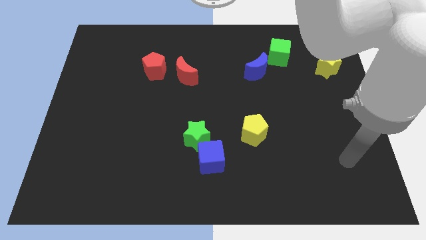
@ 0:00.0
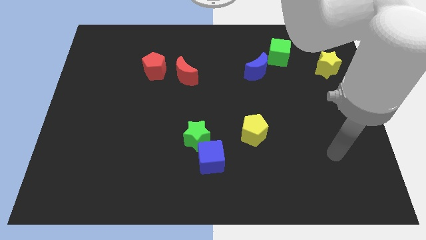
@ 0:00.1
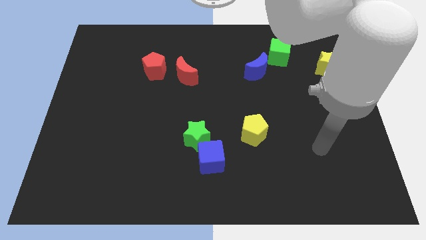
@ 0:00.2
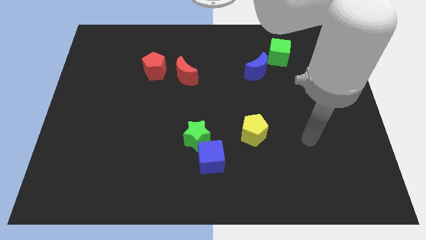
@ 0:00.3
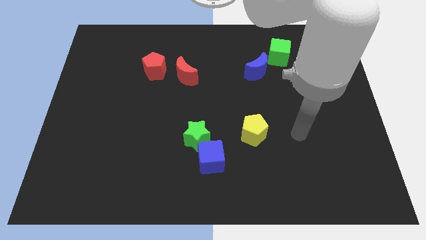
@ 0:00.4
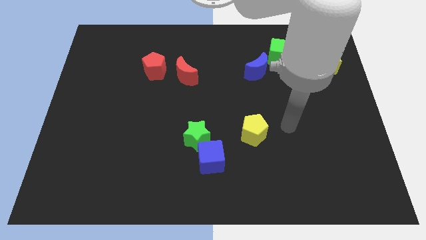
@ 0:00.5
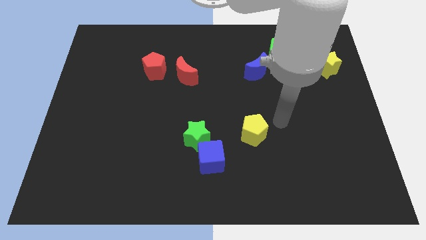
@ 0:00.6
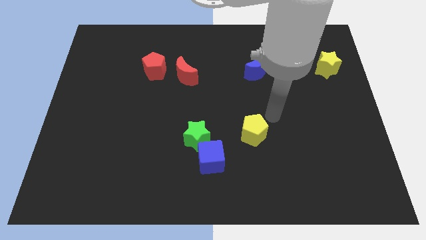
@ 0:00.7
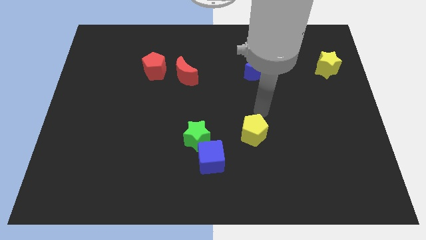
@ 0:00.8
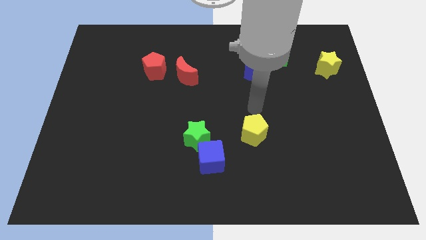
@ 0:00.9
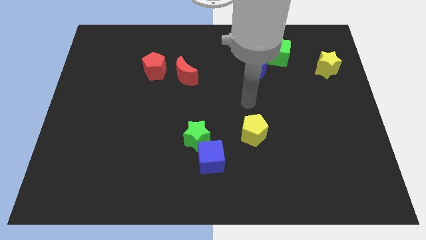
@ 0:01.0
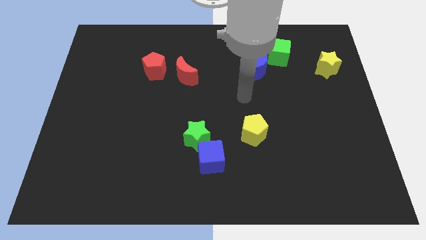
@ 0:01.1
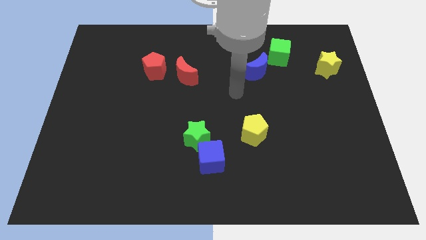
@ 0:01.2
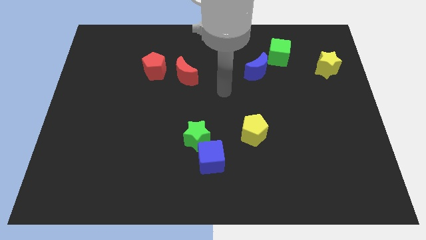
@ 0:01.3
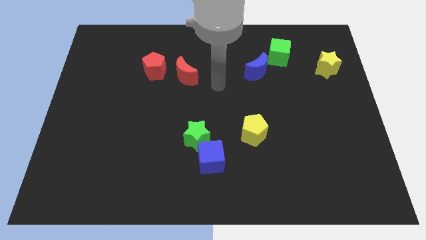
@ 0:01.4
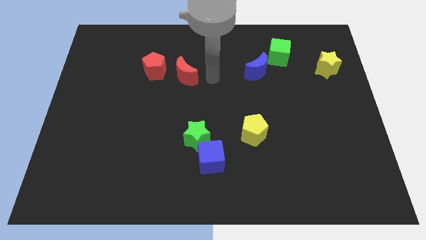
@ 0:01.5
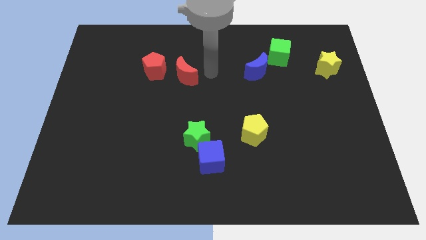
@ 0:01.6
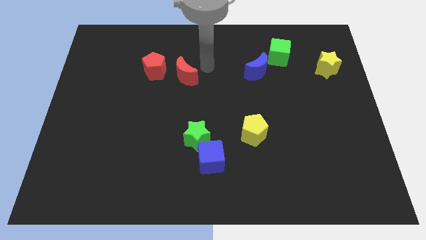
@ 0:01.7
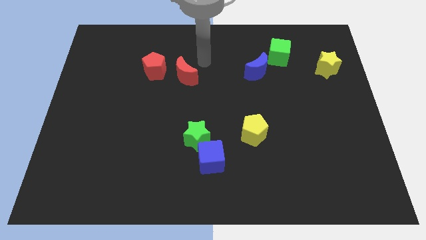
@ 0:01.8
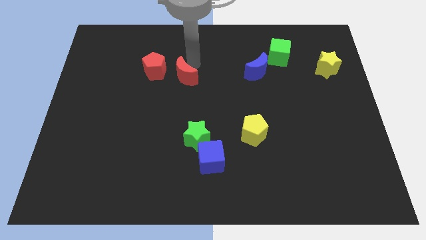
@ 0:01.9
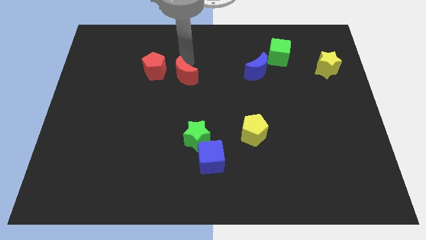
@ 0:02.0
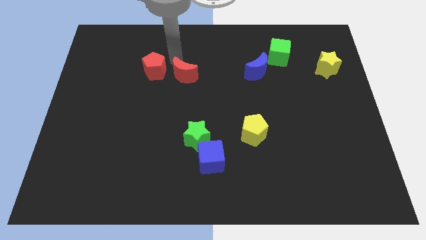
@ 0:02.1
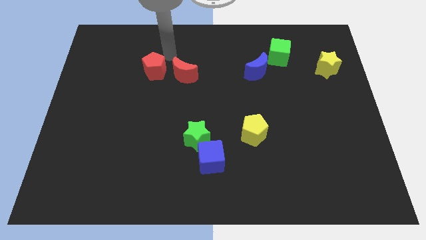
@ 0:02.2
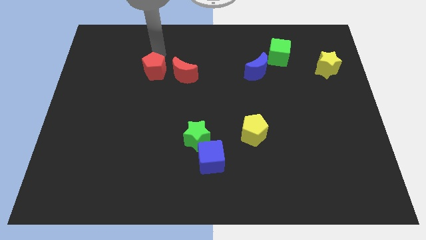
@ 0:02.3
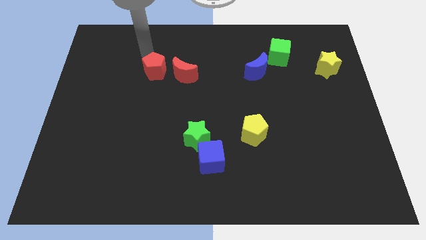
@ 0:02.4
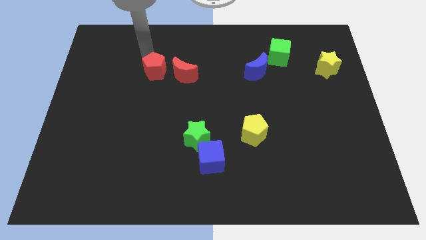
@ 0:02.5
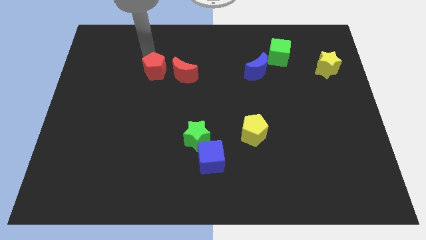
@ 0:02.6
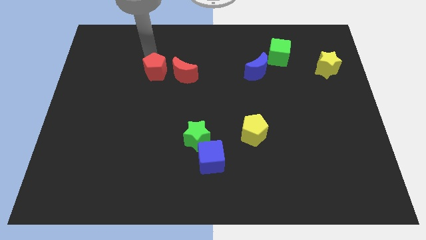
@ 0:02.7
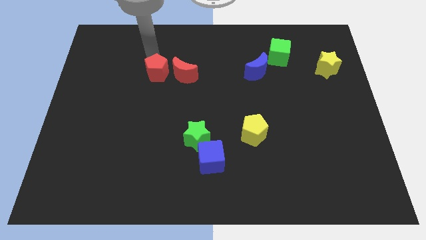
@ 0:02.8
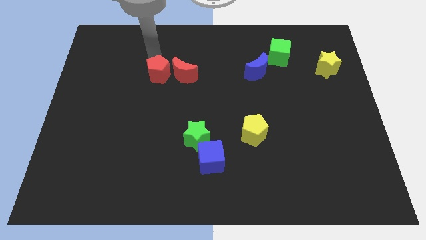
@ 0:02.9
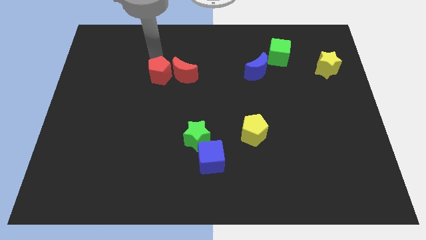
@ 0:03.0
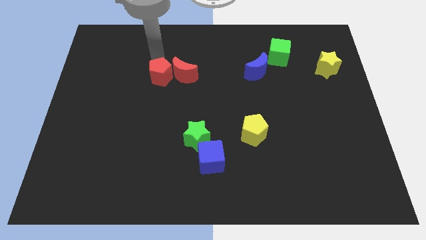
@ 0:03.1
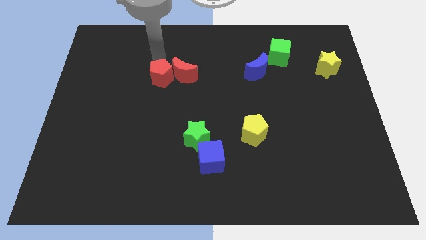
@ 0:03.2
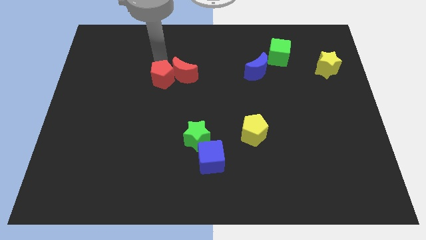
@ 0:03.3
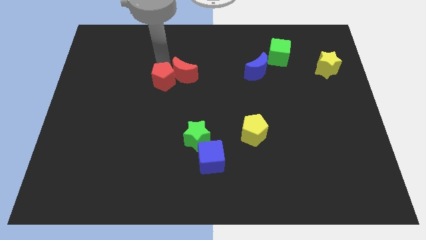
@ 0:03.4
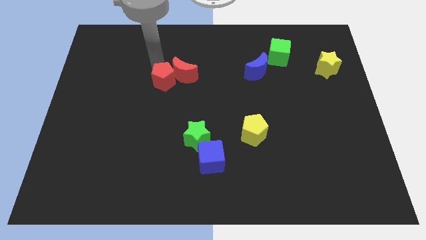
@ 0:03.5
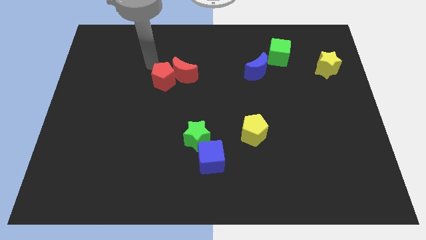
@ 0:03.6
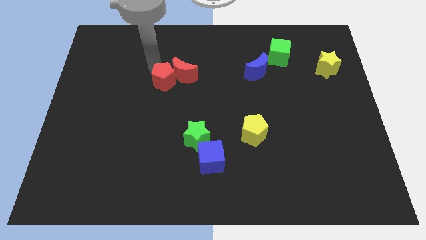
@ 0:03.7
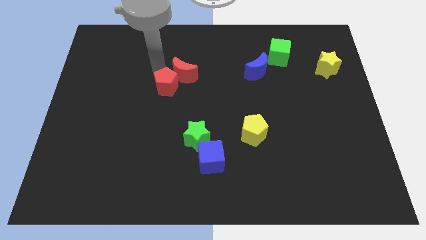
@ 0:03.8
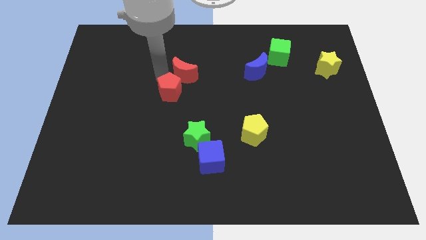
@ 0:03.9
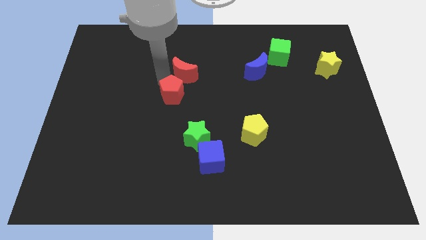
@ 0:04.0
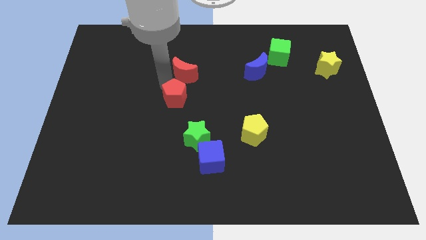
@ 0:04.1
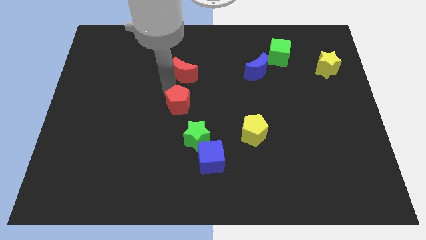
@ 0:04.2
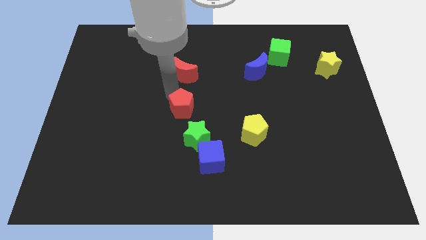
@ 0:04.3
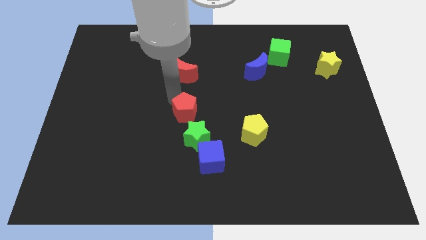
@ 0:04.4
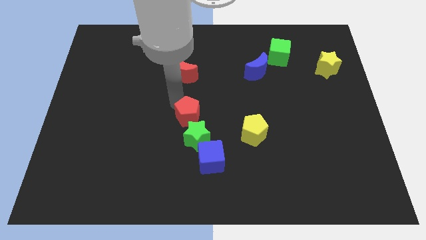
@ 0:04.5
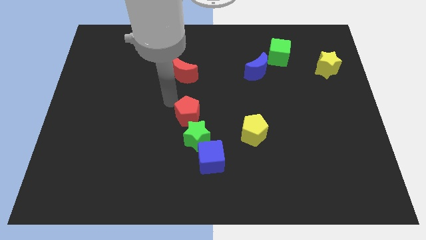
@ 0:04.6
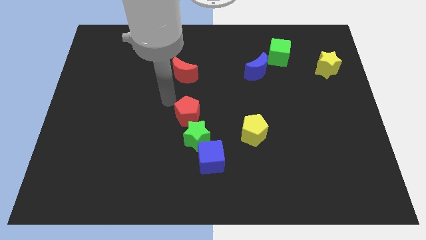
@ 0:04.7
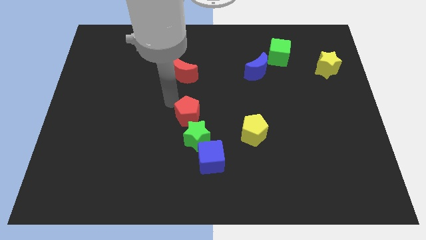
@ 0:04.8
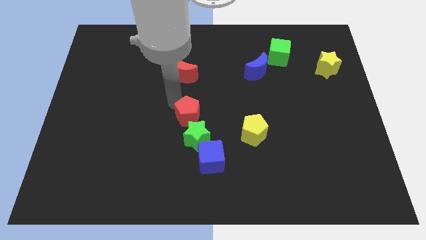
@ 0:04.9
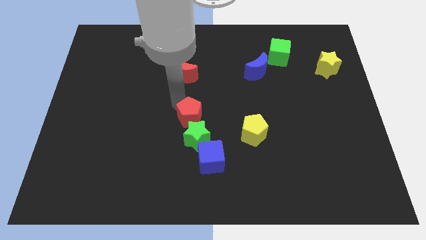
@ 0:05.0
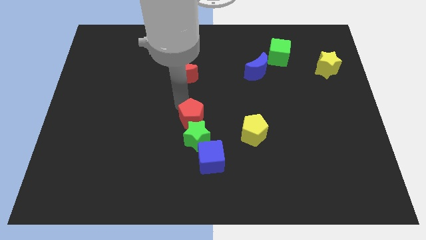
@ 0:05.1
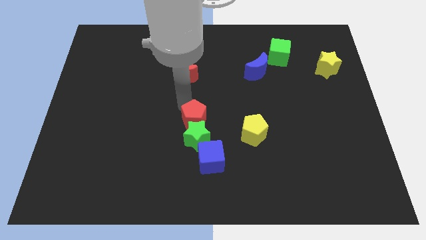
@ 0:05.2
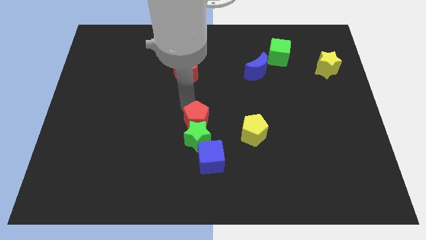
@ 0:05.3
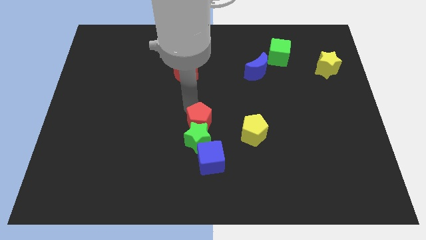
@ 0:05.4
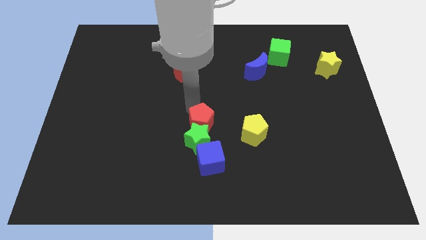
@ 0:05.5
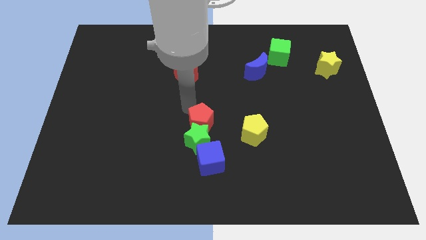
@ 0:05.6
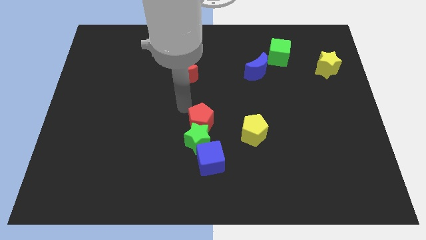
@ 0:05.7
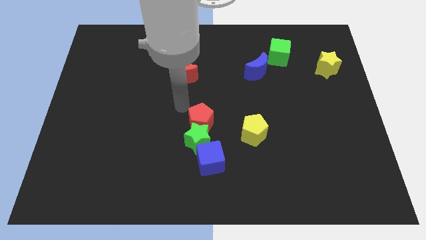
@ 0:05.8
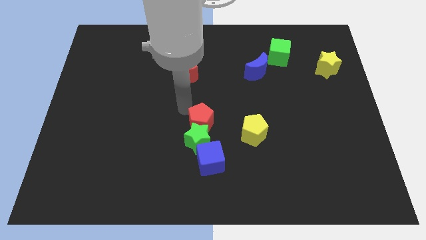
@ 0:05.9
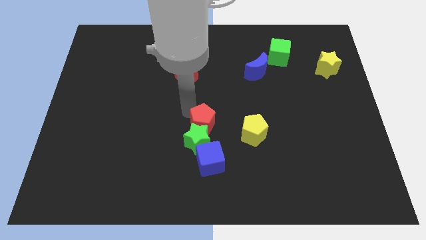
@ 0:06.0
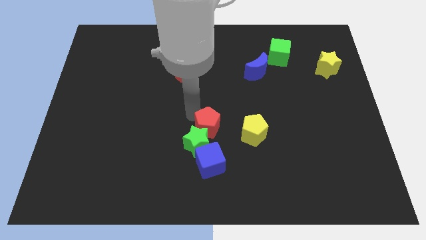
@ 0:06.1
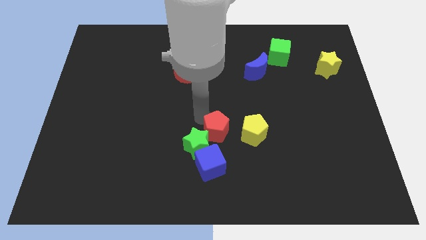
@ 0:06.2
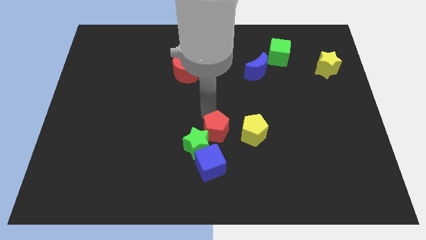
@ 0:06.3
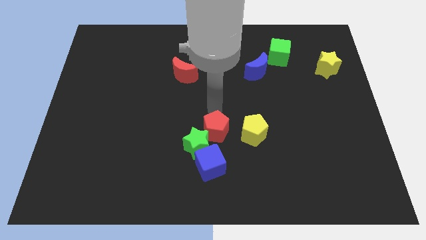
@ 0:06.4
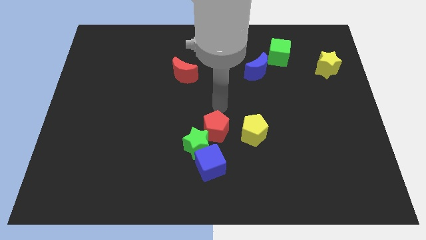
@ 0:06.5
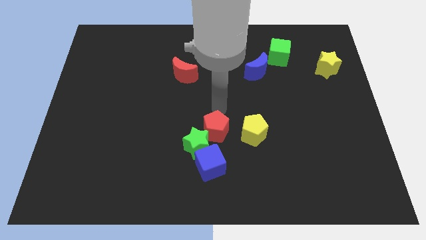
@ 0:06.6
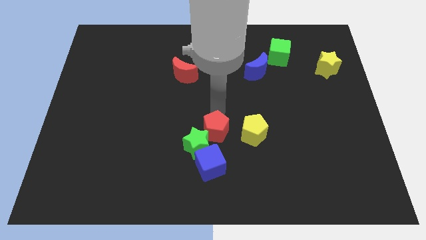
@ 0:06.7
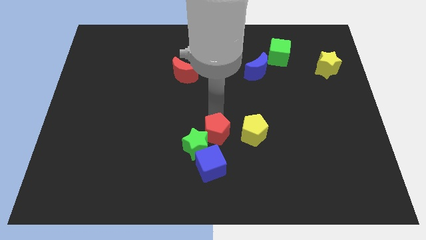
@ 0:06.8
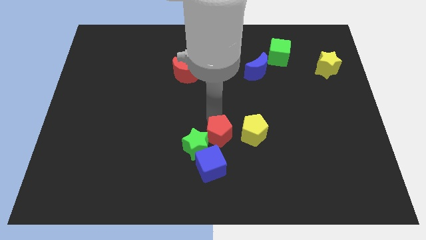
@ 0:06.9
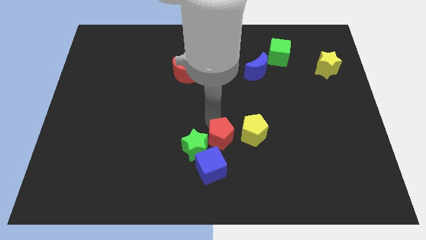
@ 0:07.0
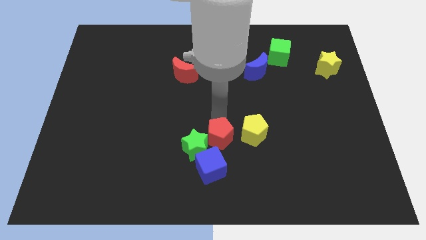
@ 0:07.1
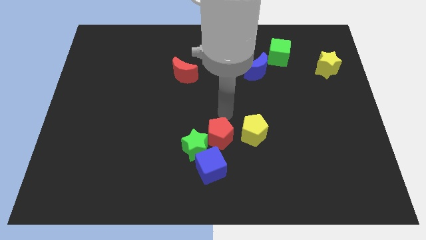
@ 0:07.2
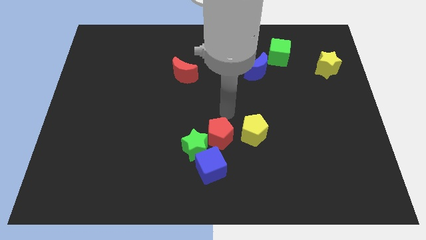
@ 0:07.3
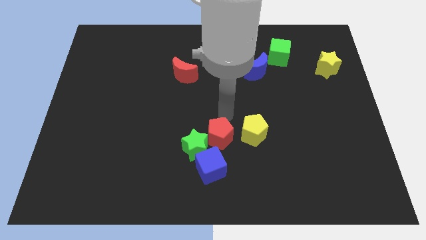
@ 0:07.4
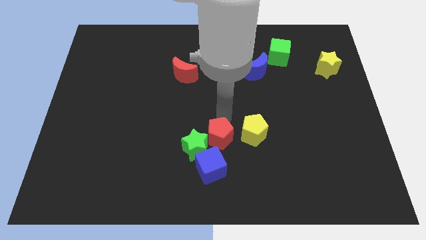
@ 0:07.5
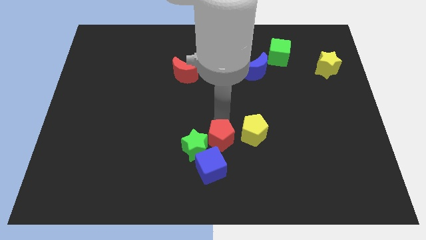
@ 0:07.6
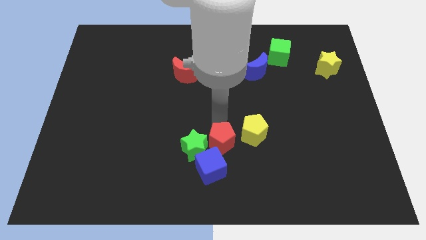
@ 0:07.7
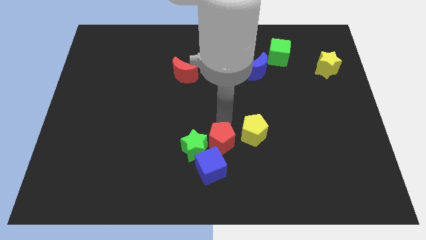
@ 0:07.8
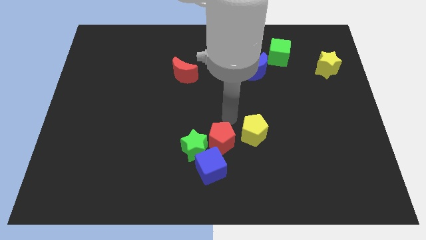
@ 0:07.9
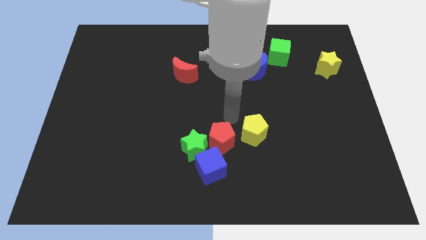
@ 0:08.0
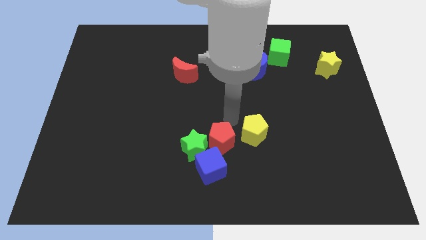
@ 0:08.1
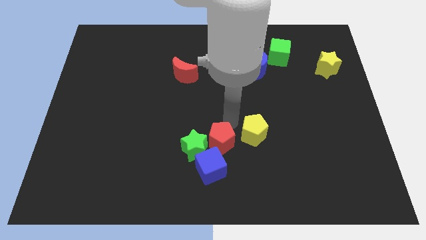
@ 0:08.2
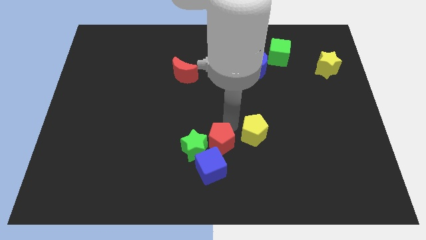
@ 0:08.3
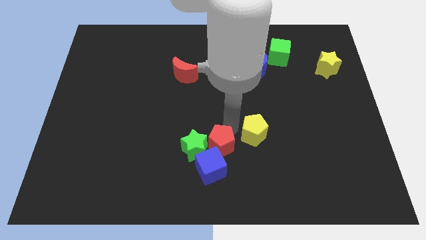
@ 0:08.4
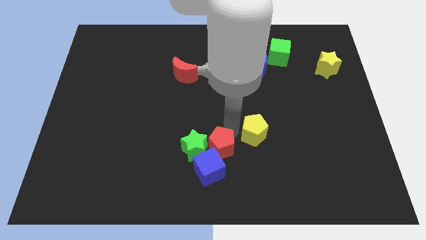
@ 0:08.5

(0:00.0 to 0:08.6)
push the red pentagon towards the blue cube
